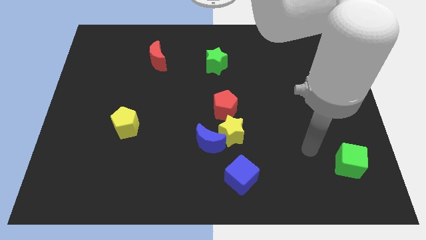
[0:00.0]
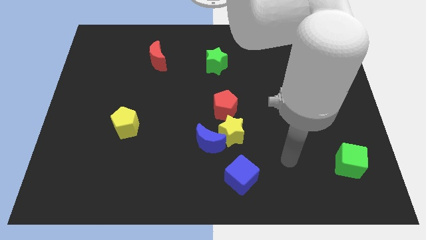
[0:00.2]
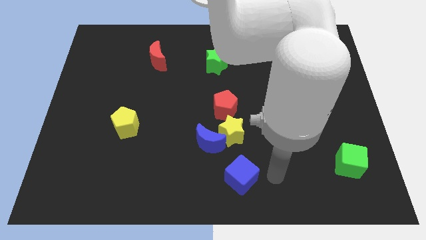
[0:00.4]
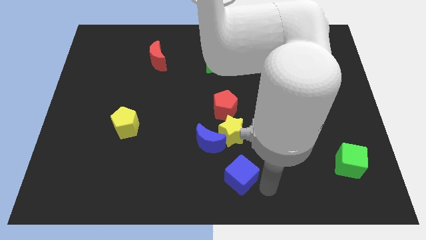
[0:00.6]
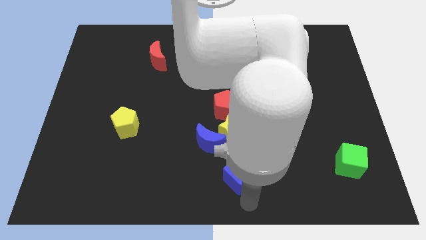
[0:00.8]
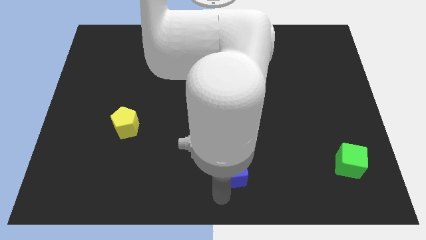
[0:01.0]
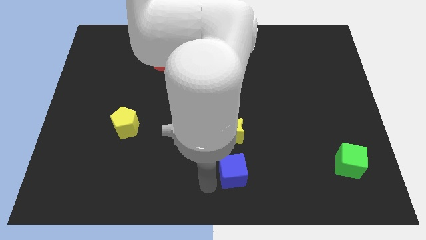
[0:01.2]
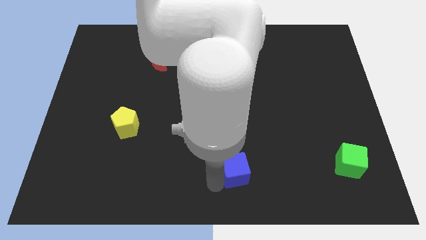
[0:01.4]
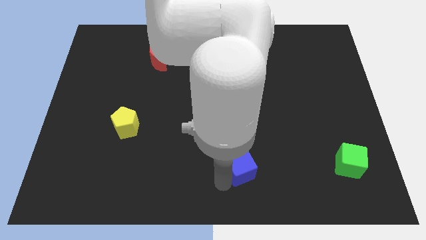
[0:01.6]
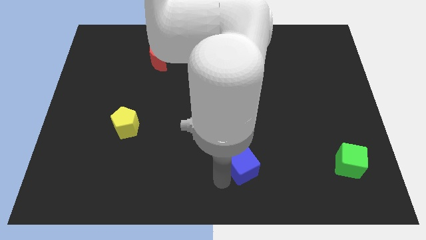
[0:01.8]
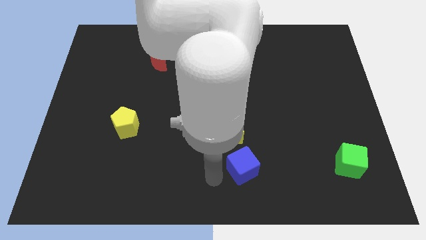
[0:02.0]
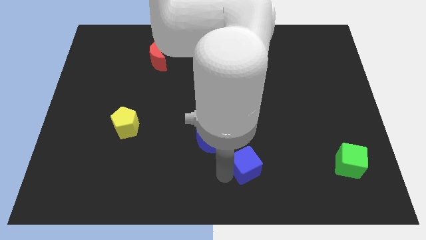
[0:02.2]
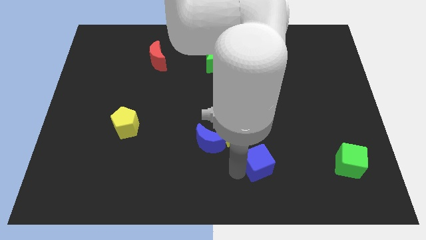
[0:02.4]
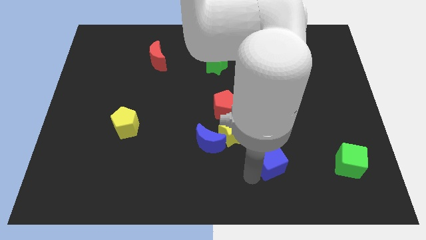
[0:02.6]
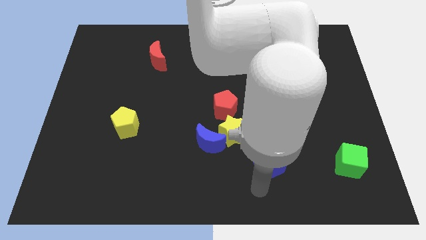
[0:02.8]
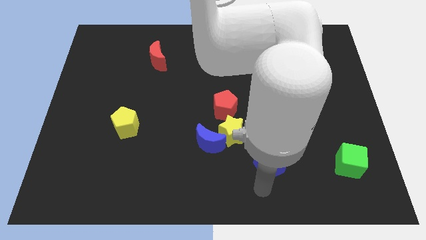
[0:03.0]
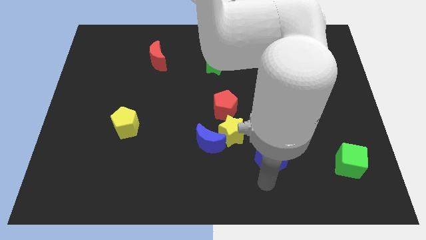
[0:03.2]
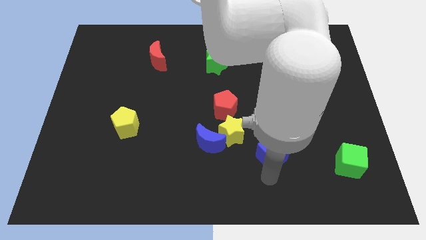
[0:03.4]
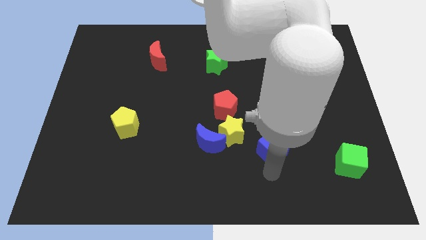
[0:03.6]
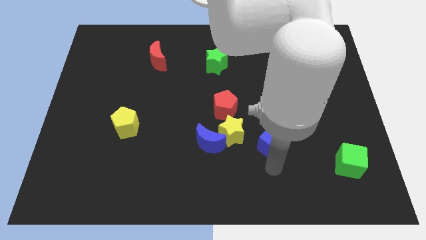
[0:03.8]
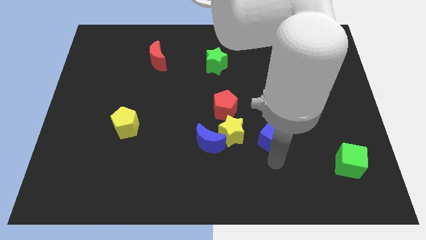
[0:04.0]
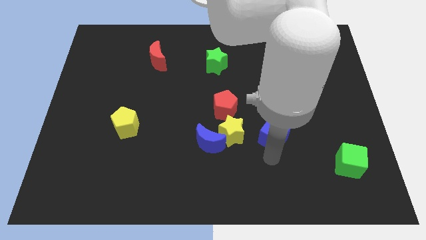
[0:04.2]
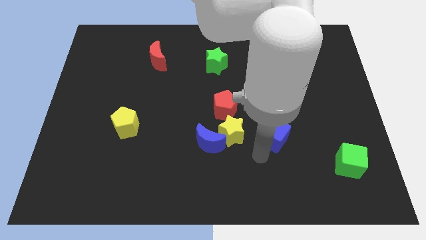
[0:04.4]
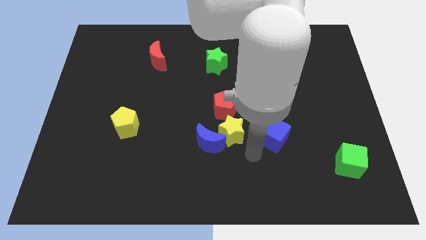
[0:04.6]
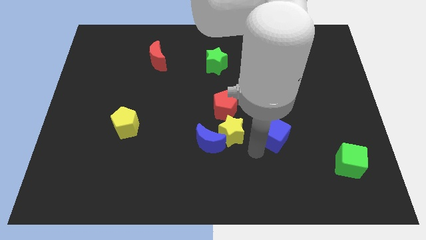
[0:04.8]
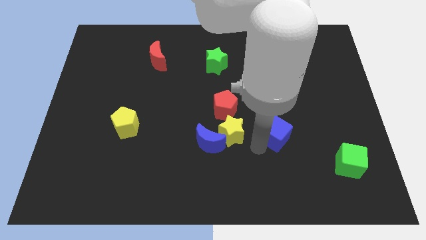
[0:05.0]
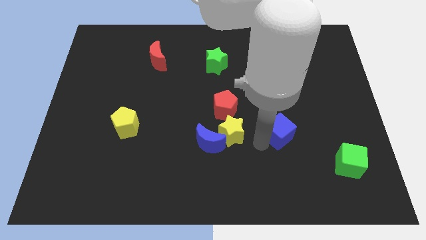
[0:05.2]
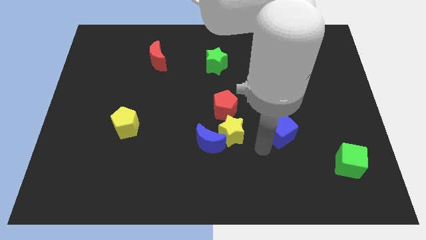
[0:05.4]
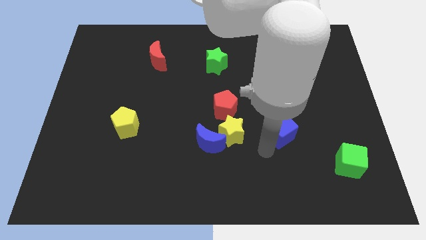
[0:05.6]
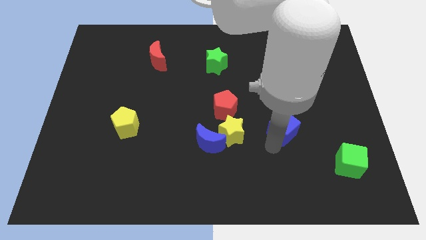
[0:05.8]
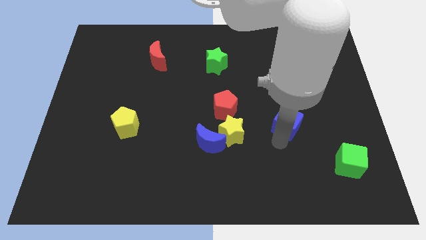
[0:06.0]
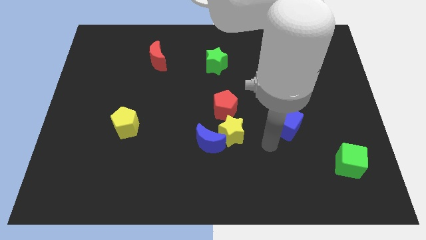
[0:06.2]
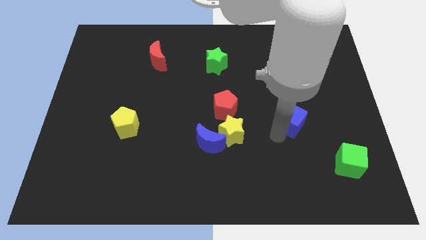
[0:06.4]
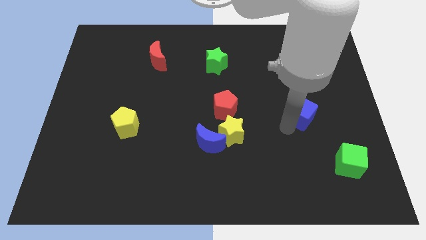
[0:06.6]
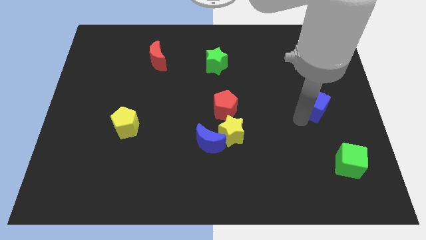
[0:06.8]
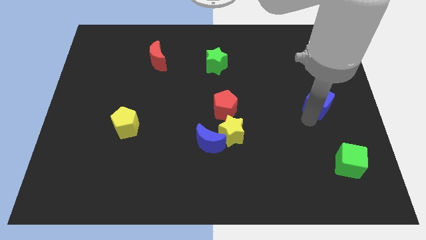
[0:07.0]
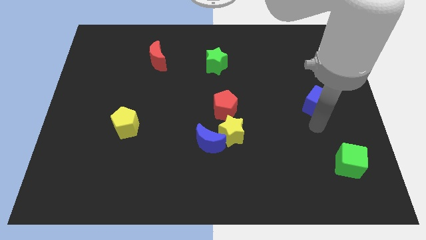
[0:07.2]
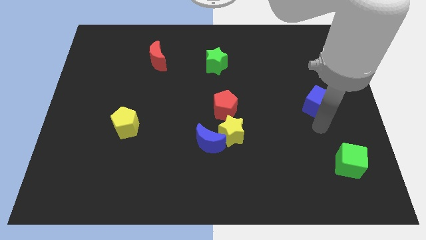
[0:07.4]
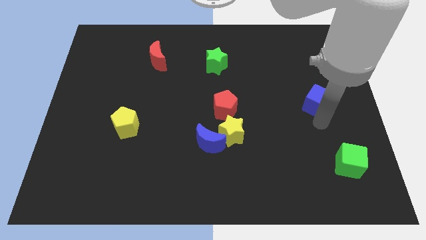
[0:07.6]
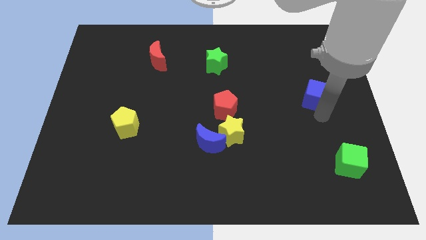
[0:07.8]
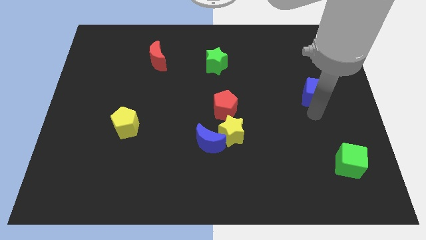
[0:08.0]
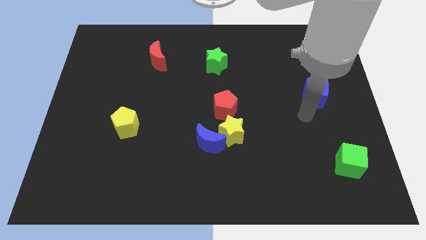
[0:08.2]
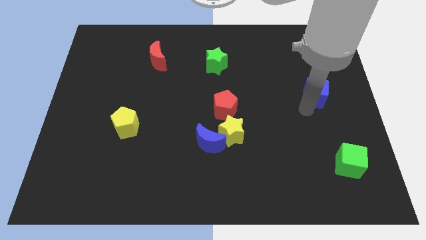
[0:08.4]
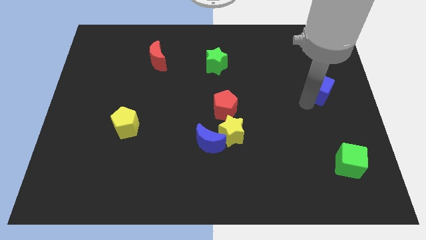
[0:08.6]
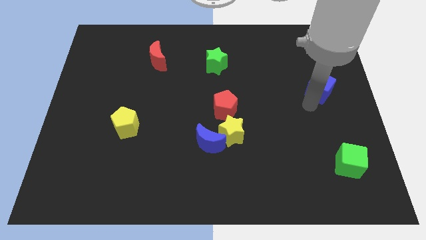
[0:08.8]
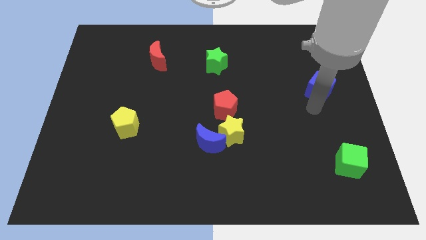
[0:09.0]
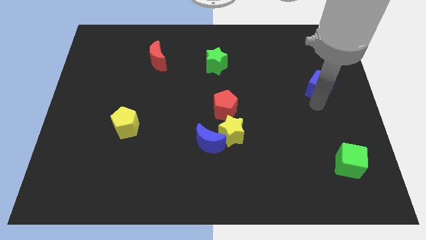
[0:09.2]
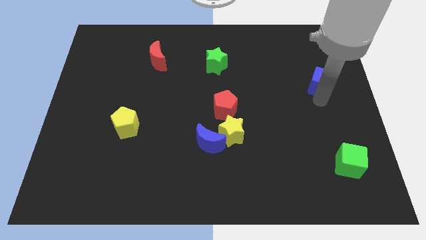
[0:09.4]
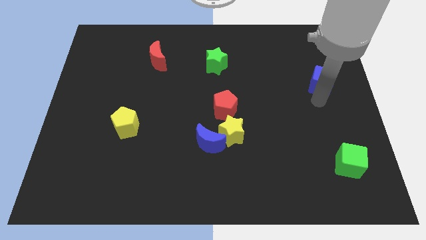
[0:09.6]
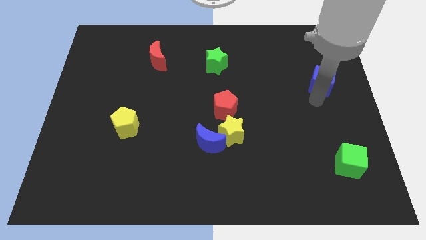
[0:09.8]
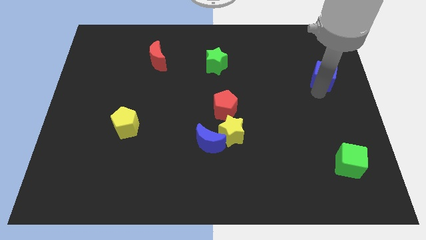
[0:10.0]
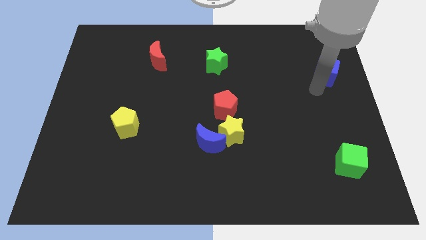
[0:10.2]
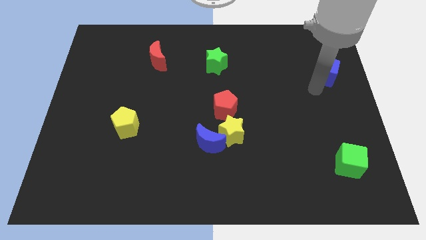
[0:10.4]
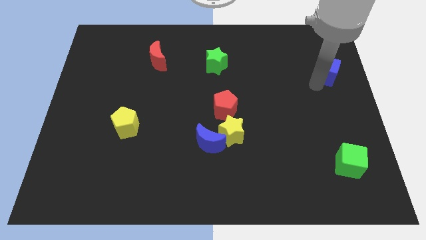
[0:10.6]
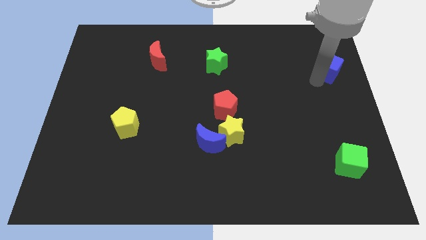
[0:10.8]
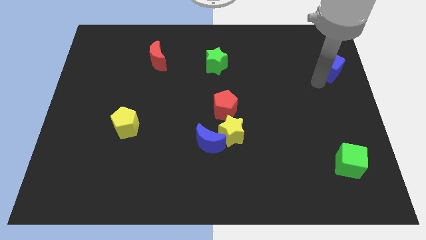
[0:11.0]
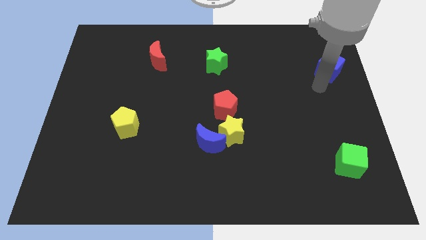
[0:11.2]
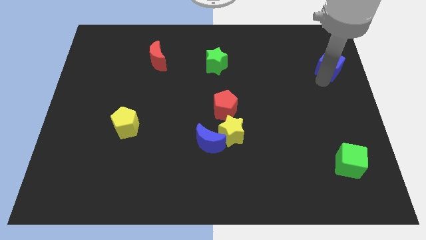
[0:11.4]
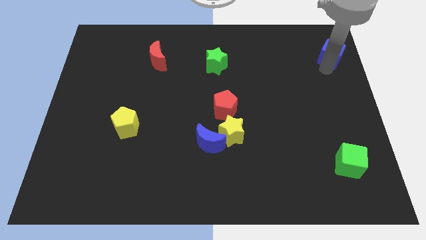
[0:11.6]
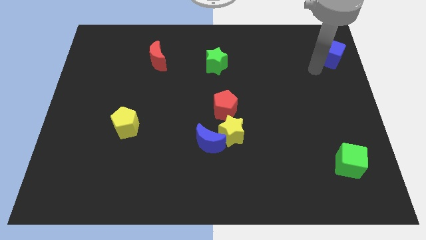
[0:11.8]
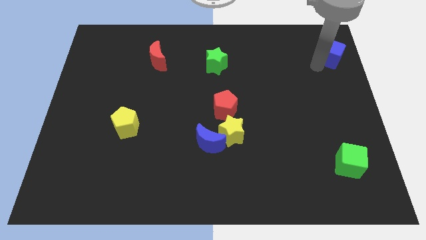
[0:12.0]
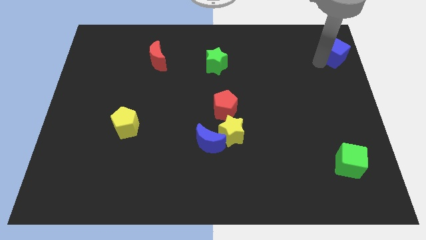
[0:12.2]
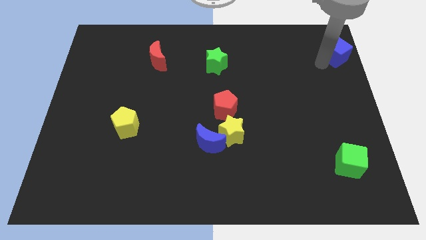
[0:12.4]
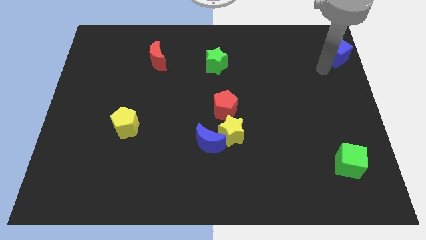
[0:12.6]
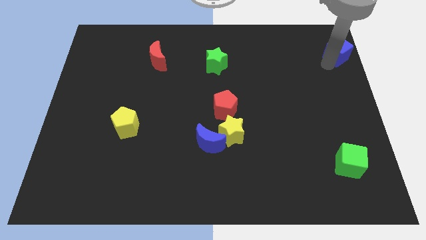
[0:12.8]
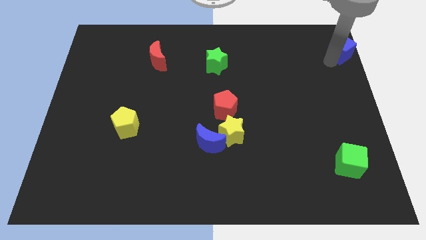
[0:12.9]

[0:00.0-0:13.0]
put the blue cube to the top right of the board
